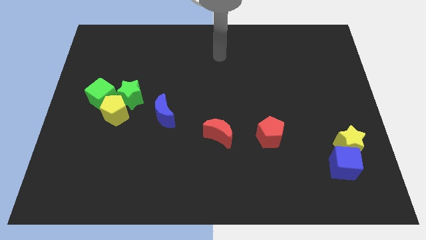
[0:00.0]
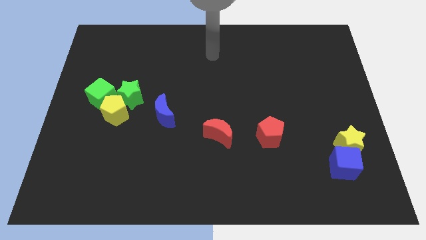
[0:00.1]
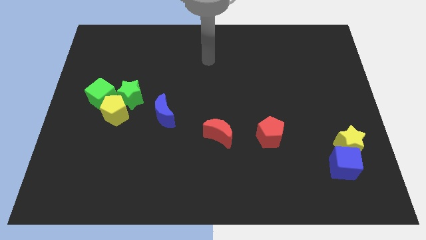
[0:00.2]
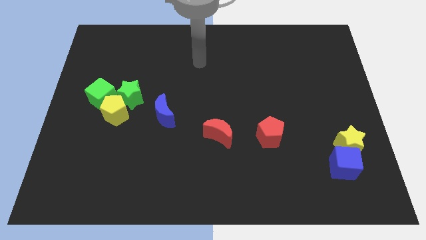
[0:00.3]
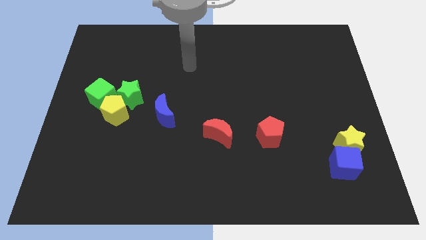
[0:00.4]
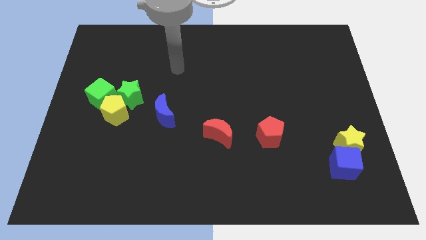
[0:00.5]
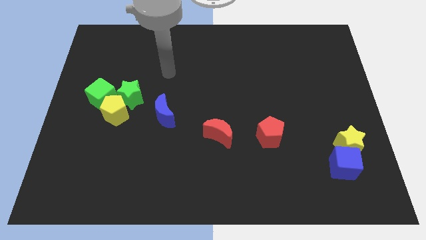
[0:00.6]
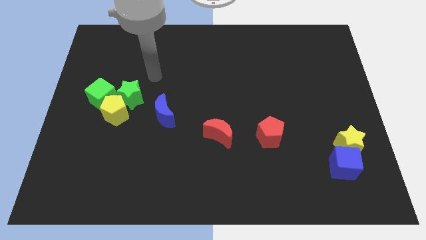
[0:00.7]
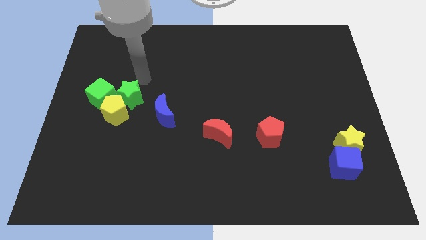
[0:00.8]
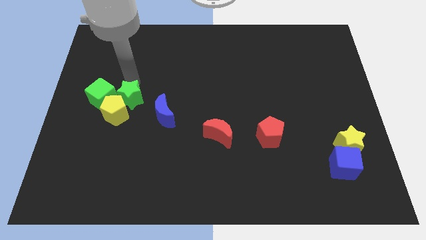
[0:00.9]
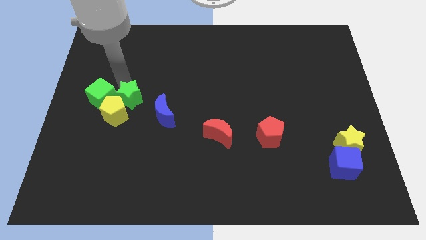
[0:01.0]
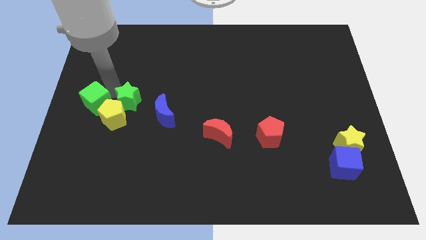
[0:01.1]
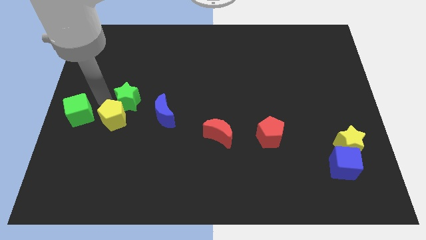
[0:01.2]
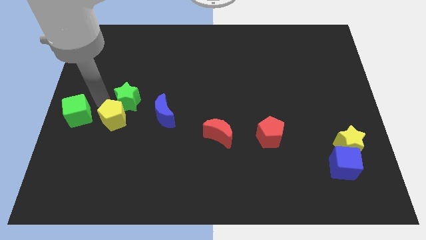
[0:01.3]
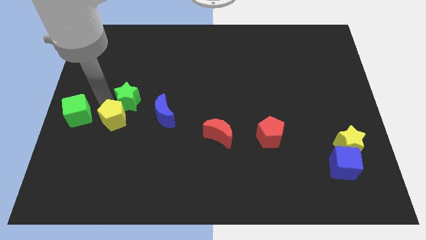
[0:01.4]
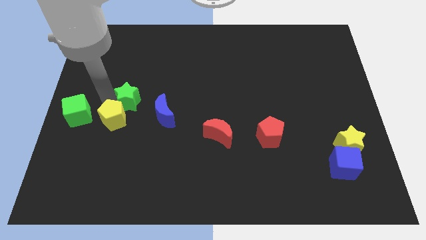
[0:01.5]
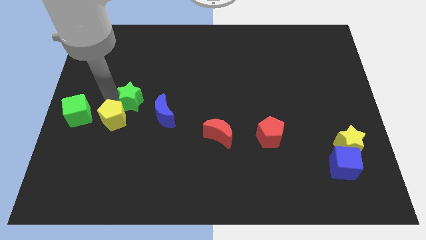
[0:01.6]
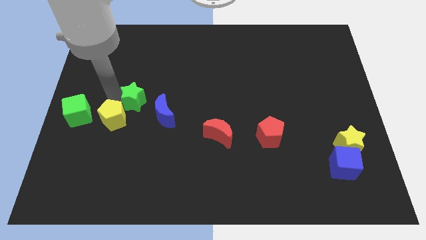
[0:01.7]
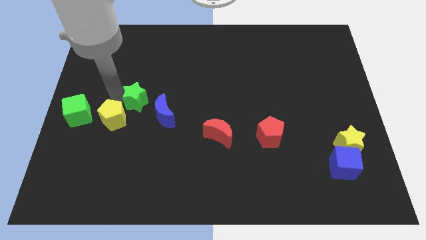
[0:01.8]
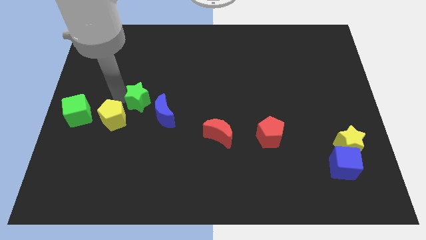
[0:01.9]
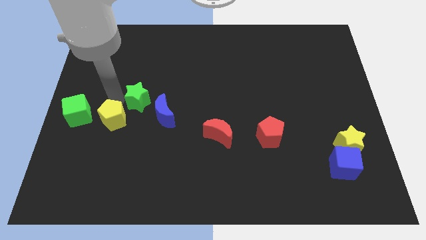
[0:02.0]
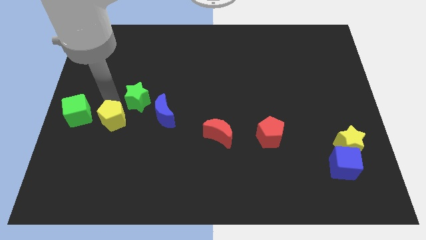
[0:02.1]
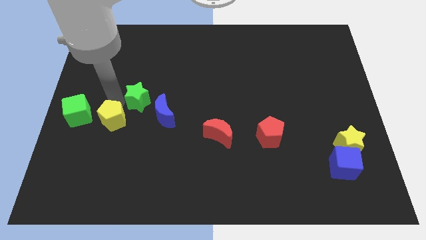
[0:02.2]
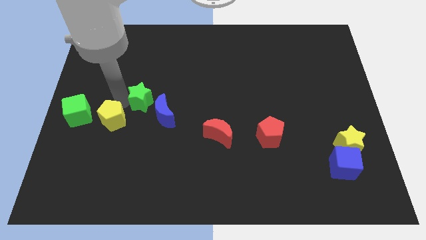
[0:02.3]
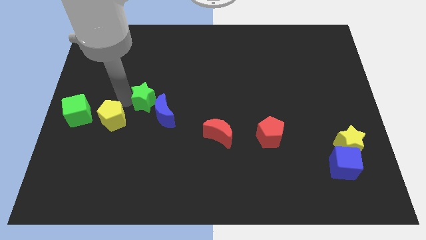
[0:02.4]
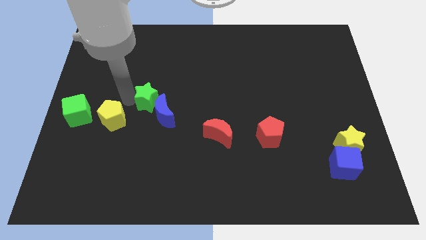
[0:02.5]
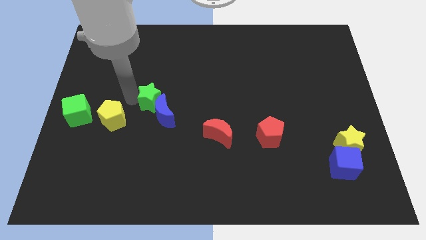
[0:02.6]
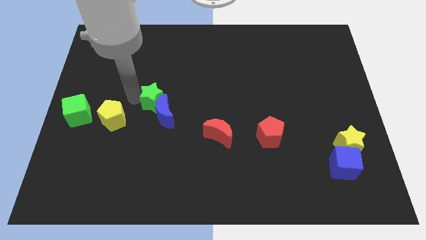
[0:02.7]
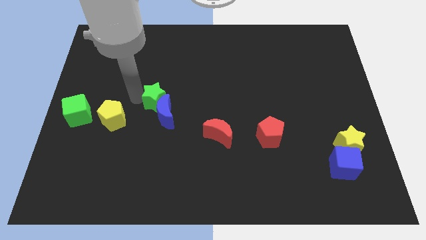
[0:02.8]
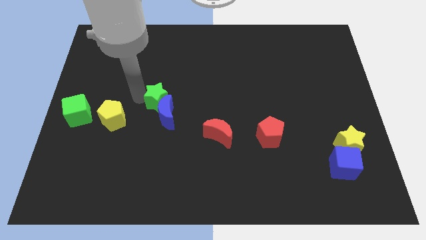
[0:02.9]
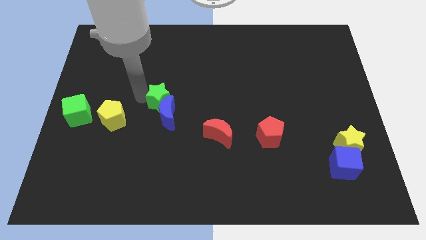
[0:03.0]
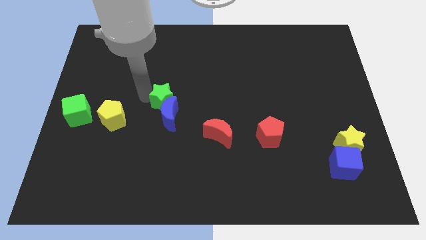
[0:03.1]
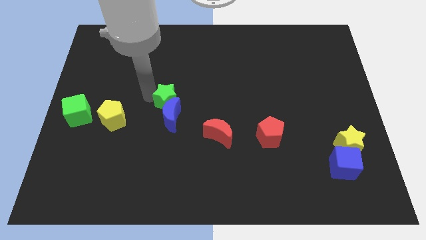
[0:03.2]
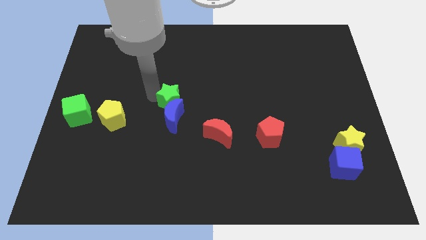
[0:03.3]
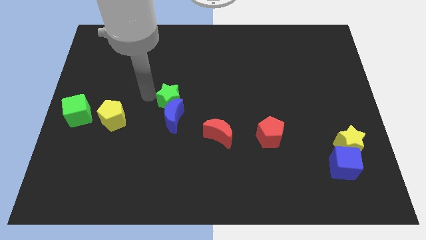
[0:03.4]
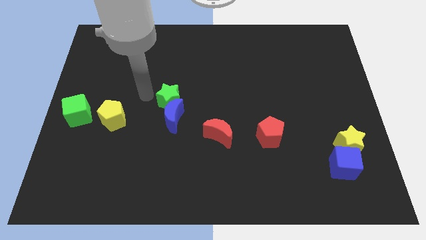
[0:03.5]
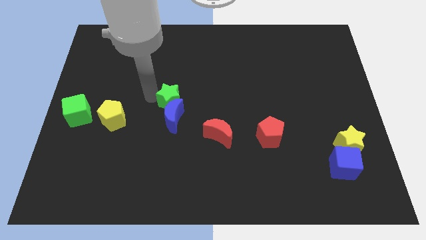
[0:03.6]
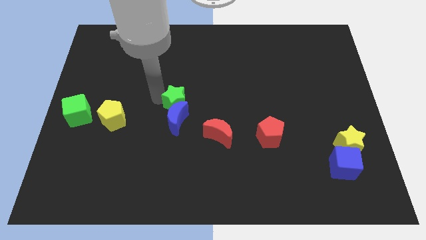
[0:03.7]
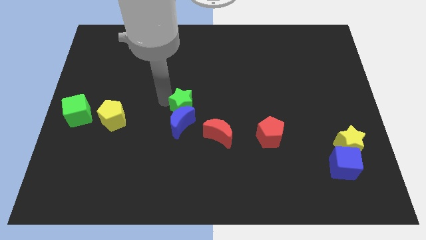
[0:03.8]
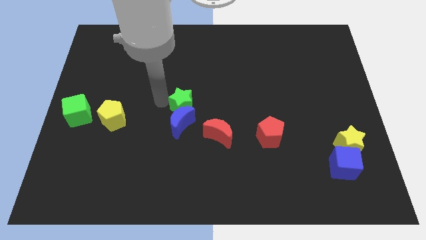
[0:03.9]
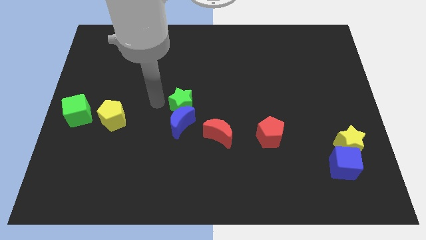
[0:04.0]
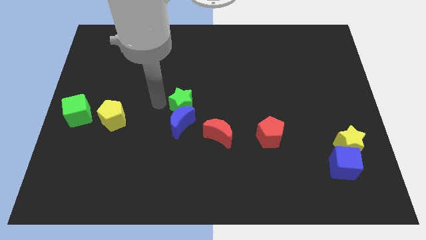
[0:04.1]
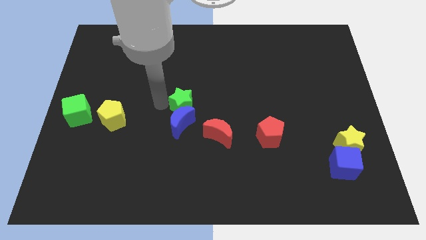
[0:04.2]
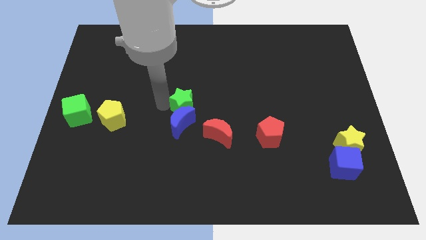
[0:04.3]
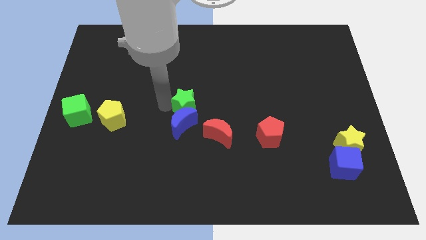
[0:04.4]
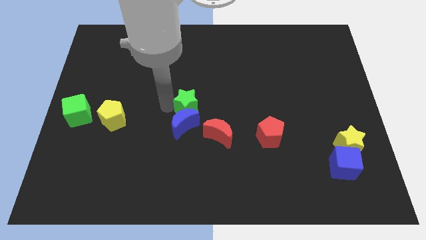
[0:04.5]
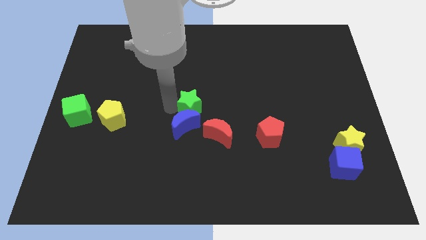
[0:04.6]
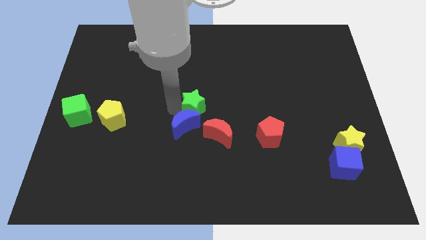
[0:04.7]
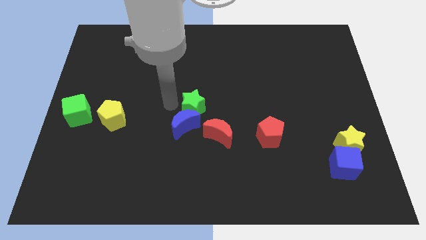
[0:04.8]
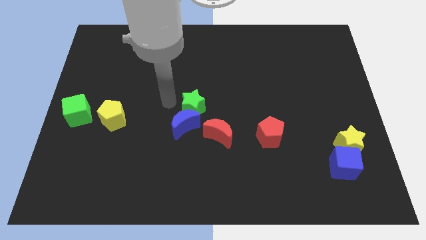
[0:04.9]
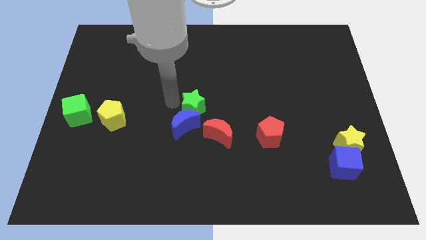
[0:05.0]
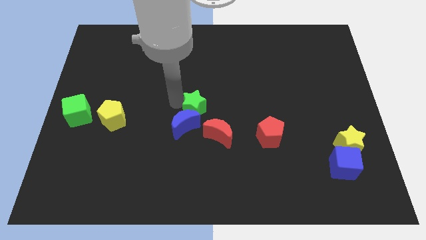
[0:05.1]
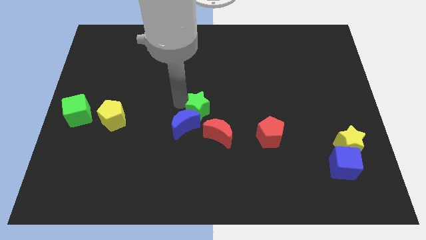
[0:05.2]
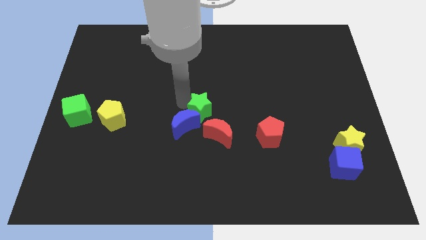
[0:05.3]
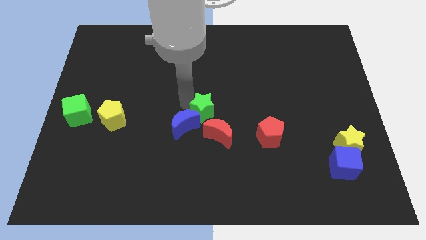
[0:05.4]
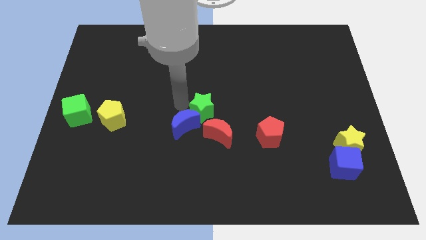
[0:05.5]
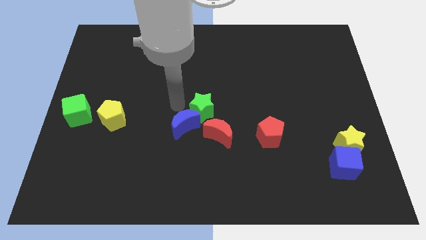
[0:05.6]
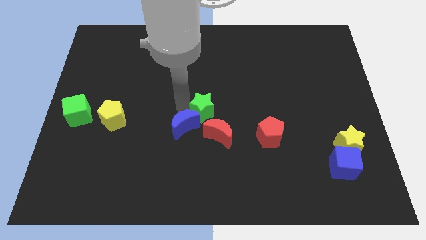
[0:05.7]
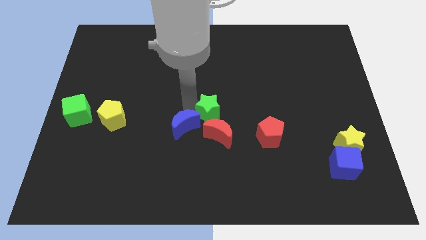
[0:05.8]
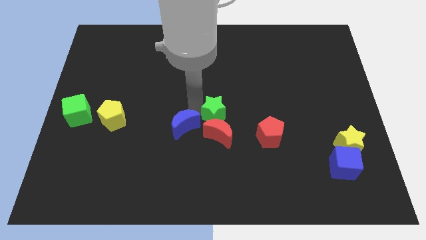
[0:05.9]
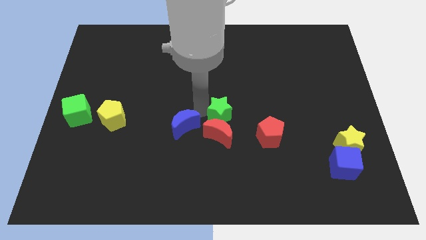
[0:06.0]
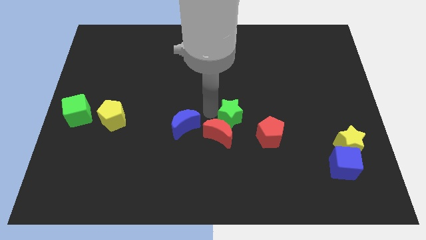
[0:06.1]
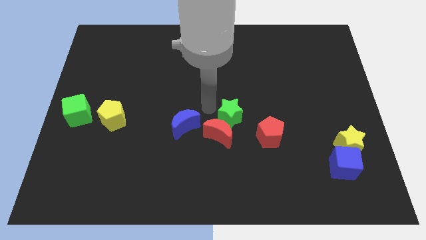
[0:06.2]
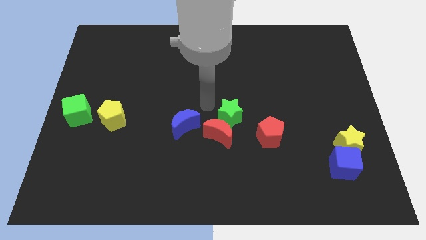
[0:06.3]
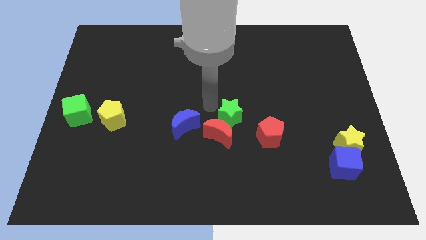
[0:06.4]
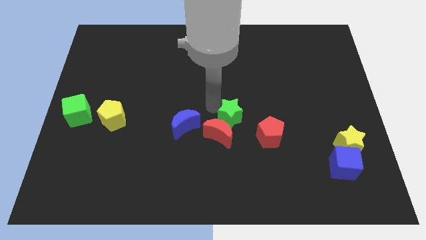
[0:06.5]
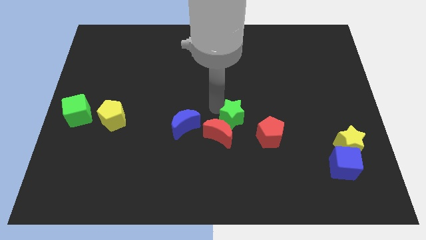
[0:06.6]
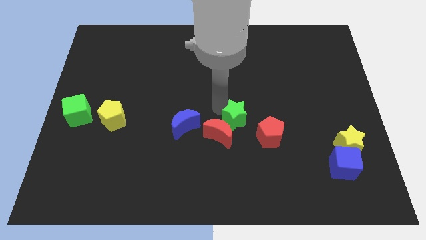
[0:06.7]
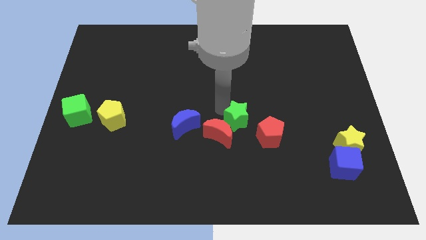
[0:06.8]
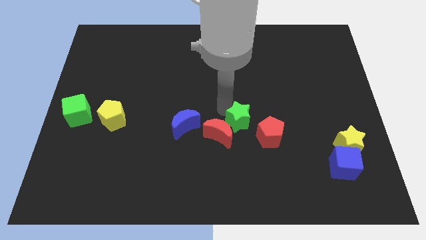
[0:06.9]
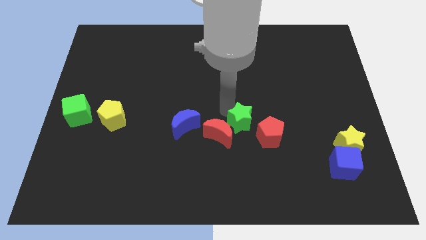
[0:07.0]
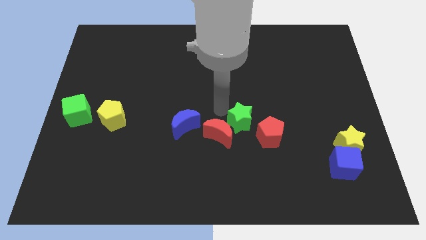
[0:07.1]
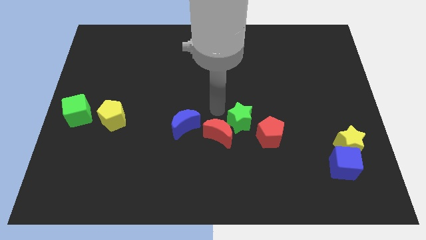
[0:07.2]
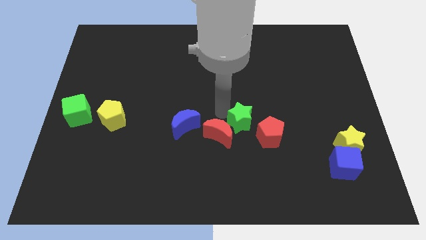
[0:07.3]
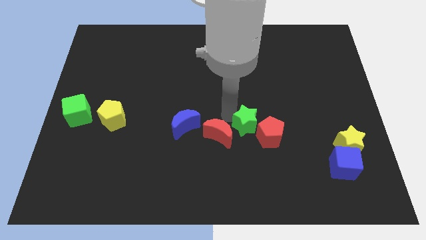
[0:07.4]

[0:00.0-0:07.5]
slide the green star to the red pentagon
